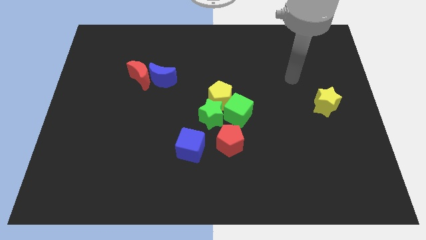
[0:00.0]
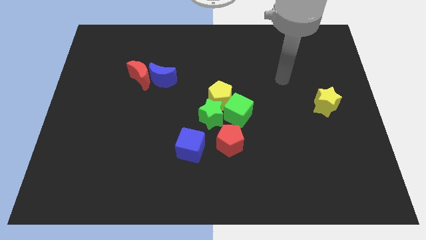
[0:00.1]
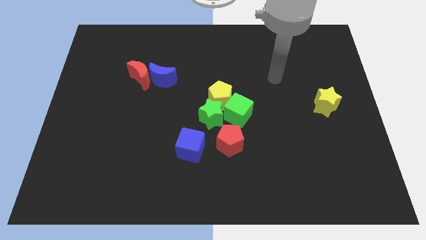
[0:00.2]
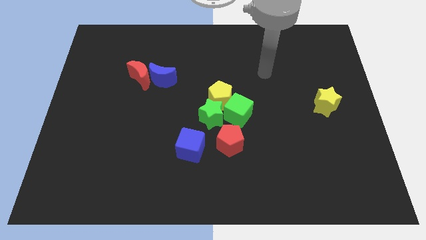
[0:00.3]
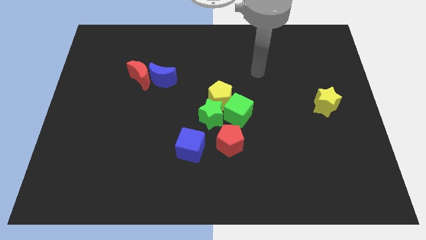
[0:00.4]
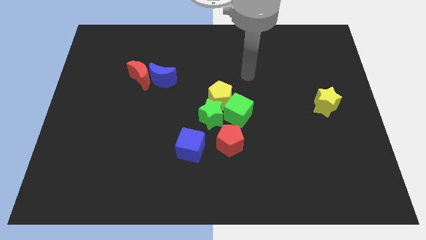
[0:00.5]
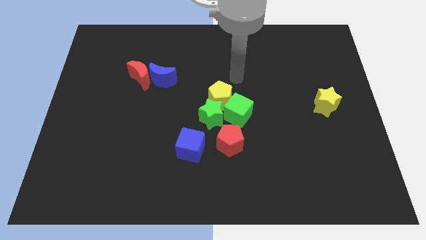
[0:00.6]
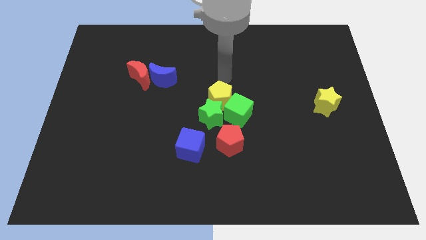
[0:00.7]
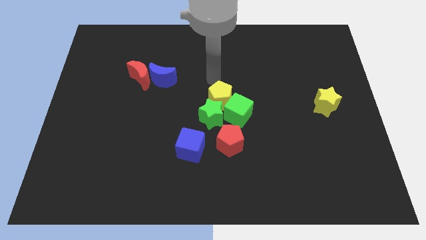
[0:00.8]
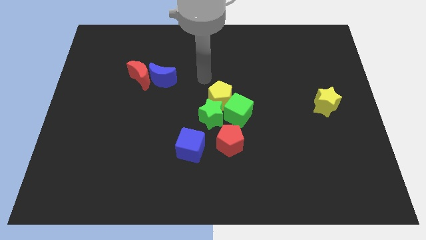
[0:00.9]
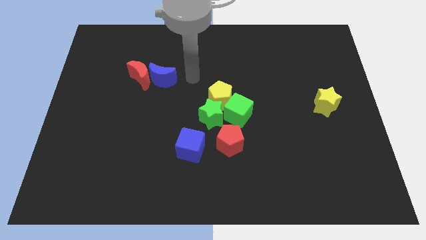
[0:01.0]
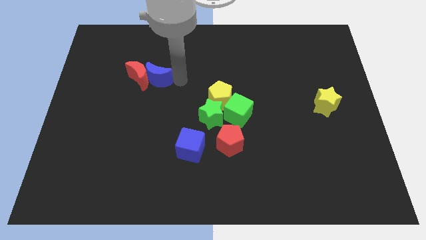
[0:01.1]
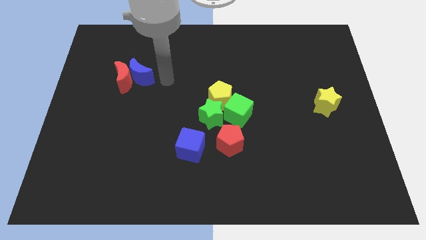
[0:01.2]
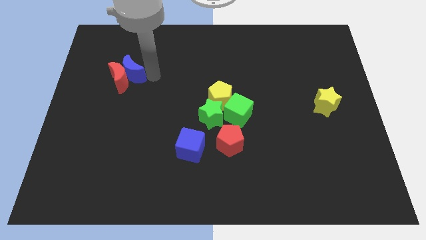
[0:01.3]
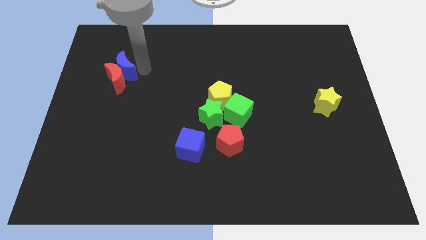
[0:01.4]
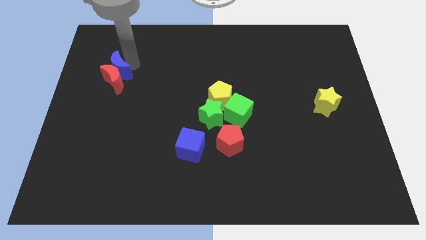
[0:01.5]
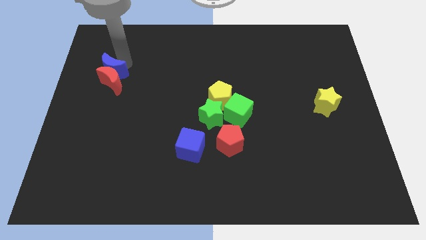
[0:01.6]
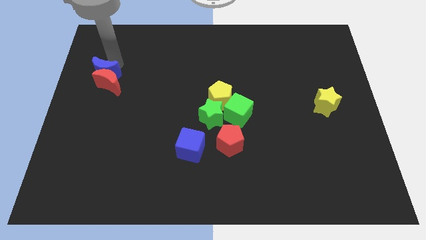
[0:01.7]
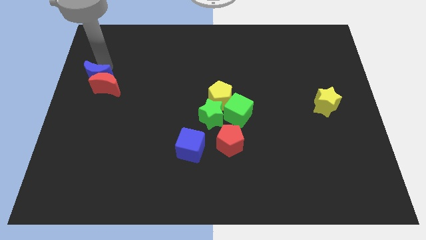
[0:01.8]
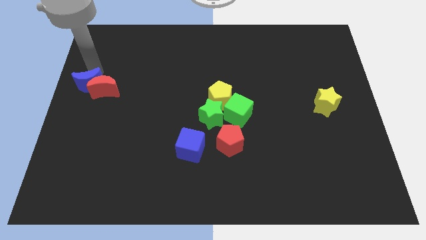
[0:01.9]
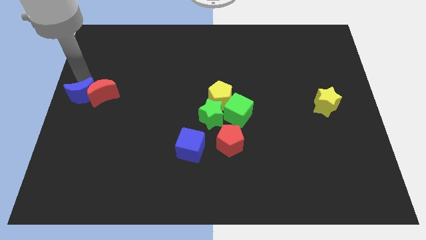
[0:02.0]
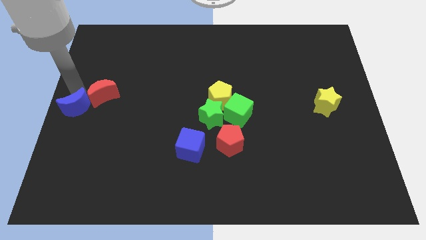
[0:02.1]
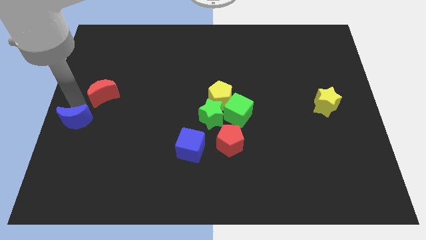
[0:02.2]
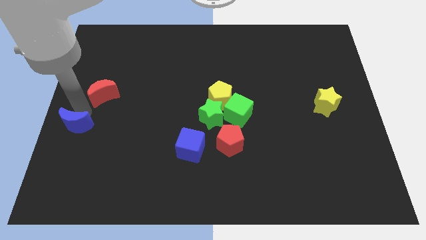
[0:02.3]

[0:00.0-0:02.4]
move the red moon away from the blue moon

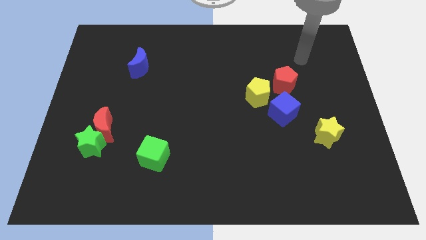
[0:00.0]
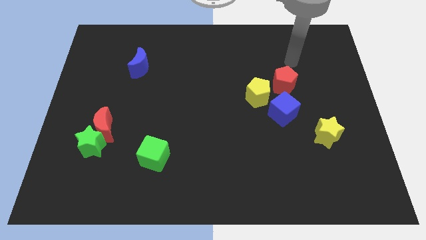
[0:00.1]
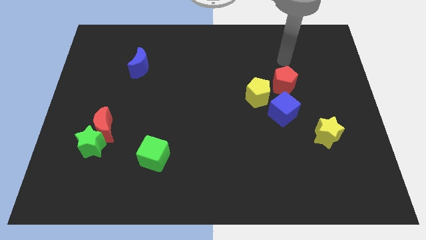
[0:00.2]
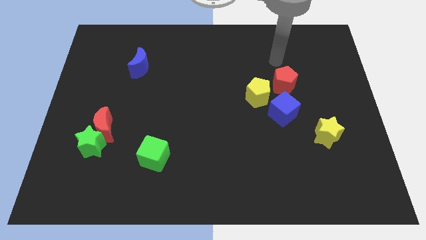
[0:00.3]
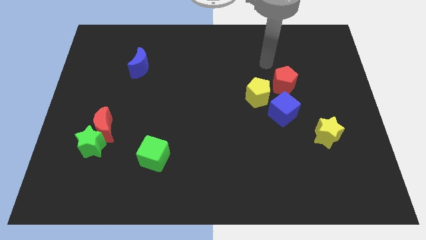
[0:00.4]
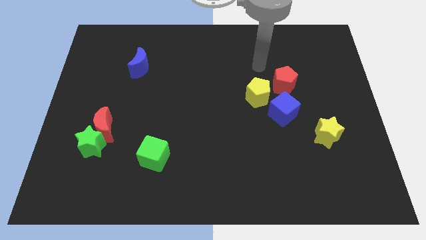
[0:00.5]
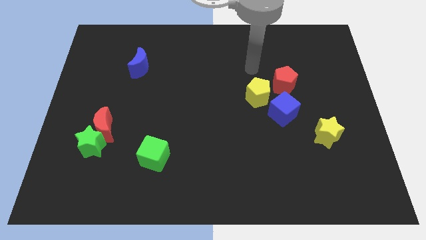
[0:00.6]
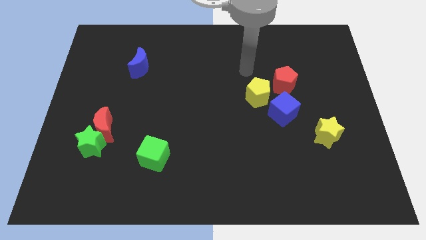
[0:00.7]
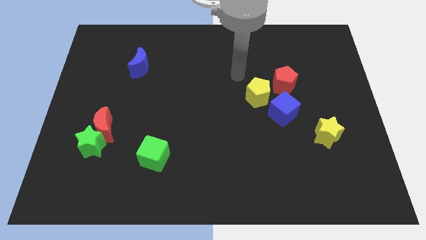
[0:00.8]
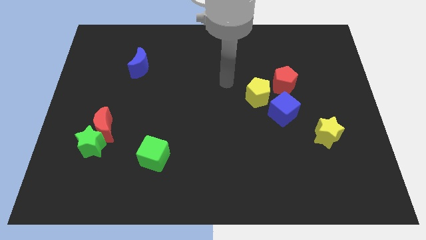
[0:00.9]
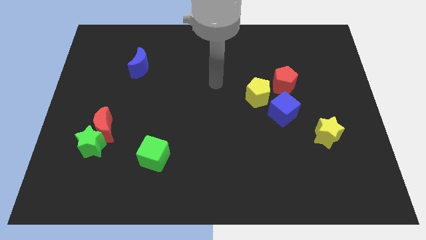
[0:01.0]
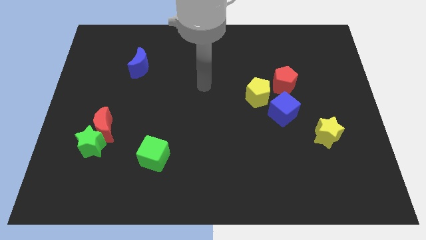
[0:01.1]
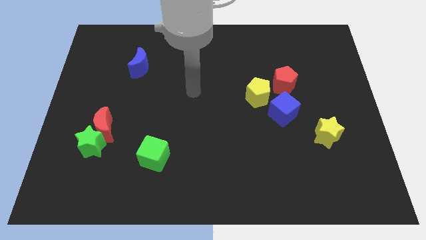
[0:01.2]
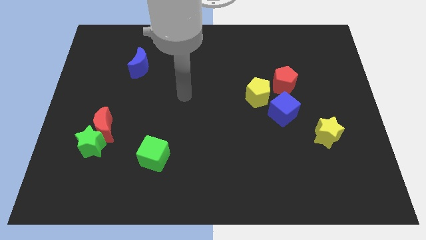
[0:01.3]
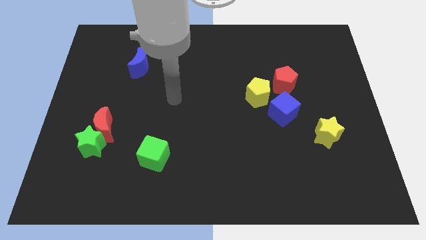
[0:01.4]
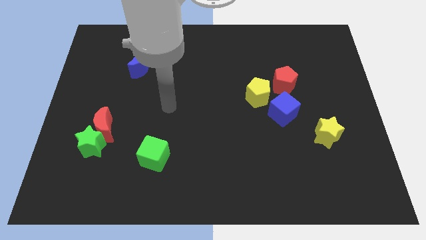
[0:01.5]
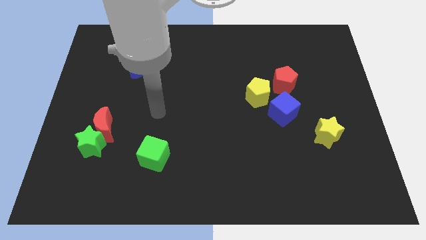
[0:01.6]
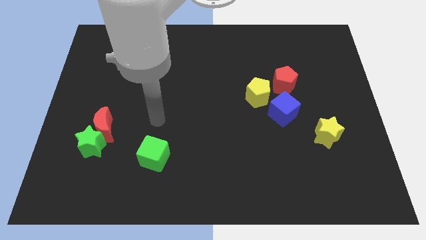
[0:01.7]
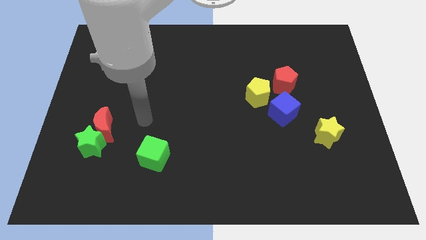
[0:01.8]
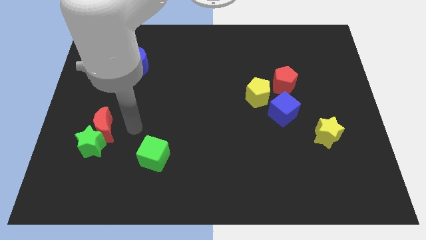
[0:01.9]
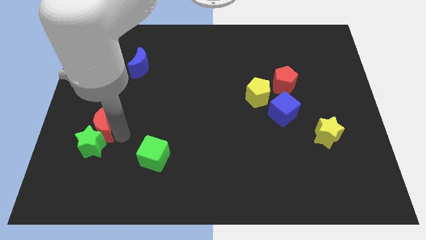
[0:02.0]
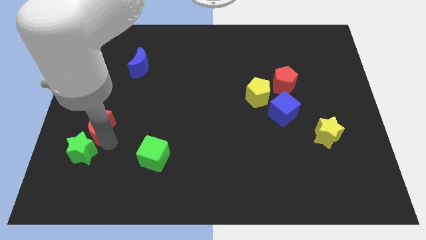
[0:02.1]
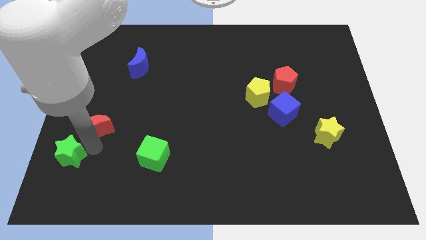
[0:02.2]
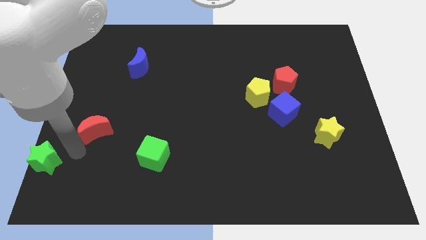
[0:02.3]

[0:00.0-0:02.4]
move the red moon away from the green star

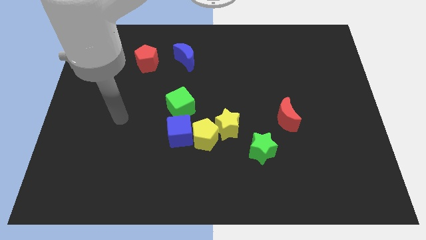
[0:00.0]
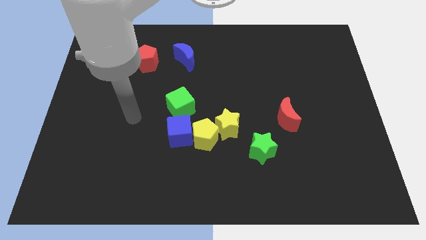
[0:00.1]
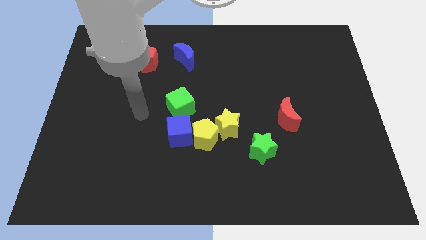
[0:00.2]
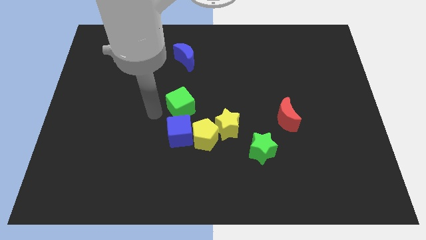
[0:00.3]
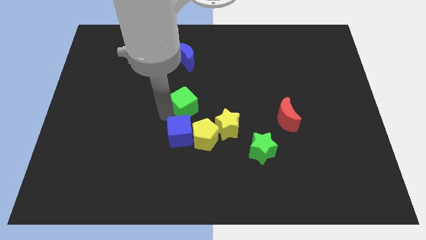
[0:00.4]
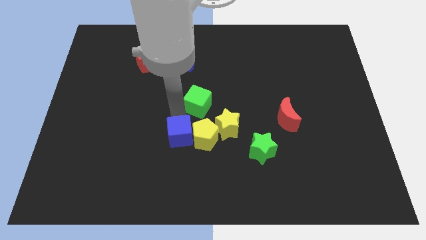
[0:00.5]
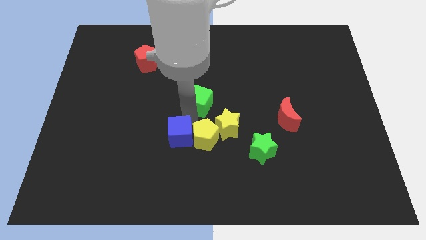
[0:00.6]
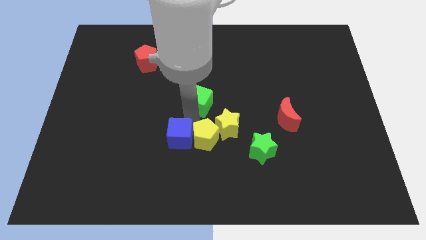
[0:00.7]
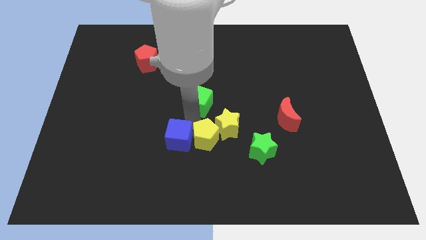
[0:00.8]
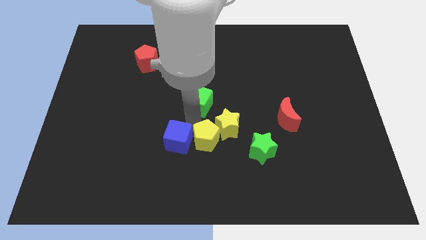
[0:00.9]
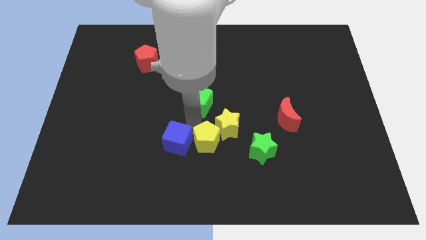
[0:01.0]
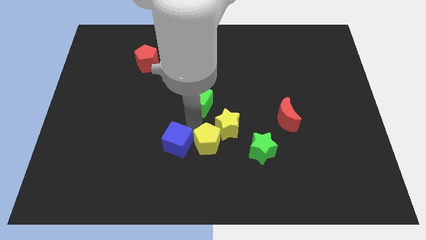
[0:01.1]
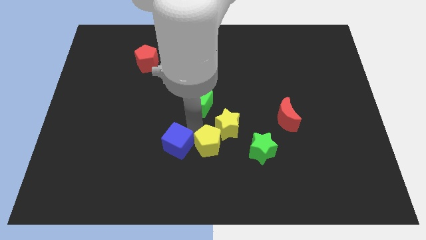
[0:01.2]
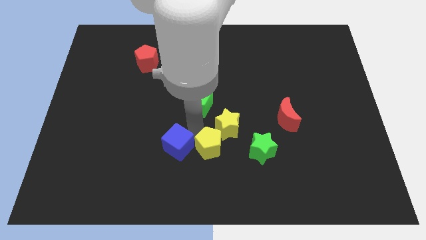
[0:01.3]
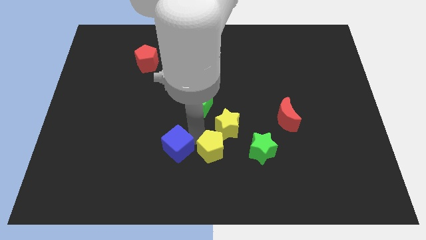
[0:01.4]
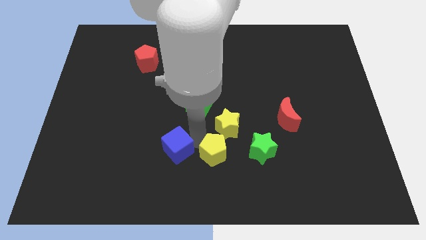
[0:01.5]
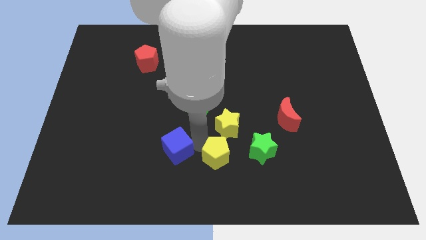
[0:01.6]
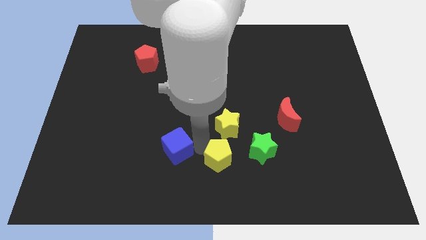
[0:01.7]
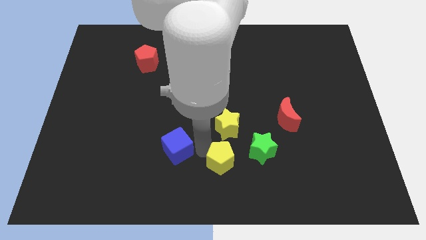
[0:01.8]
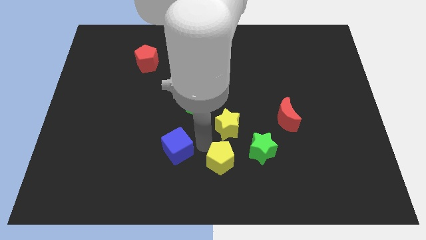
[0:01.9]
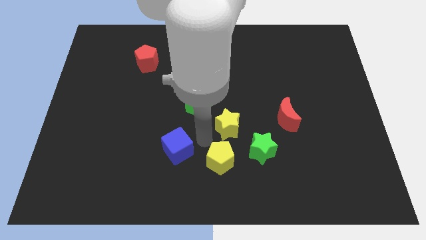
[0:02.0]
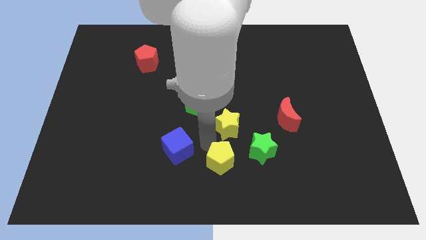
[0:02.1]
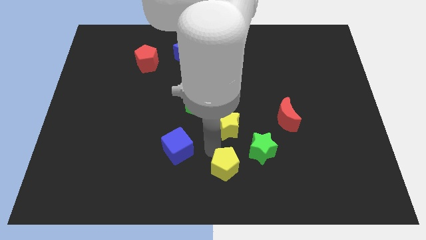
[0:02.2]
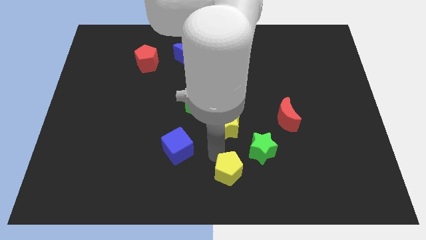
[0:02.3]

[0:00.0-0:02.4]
separate the yellow pentagon from the blue cube and yellow star

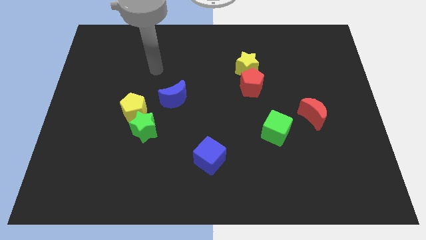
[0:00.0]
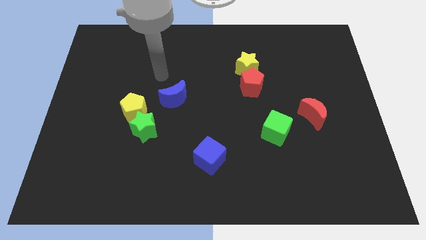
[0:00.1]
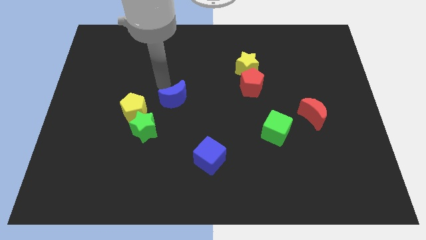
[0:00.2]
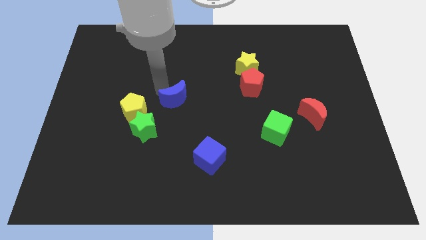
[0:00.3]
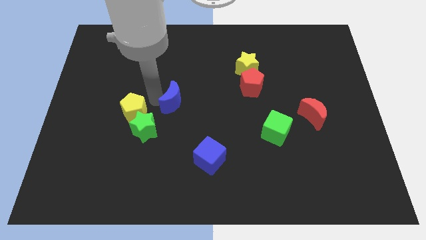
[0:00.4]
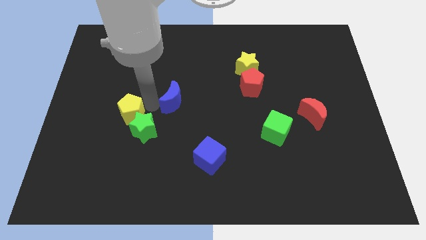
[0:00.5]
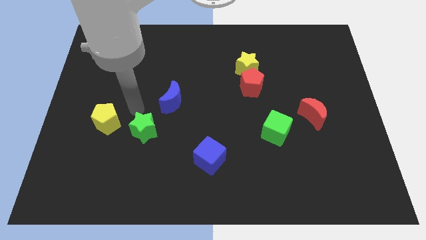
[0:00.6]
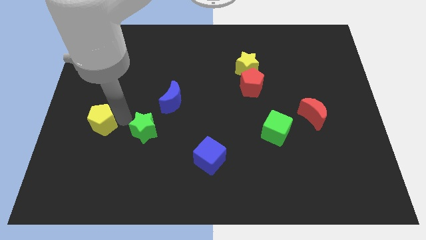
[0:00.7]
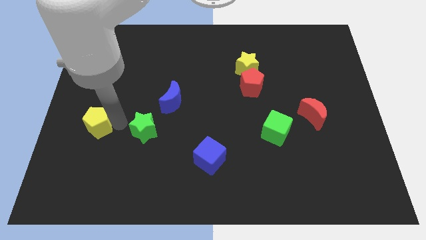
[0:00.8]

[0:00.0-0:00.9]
pull the green star apart from the yellow pentagon

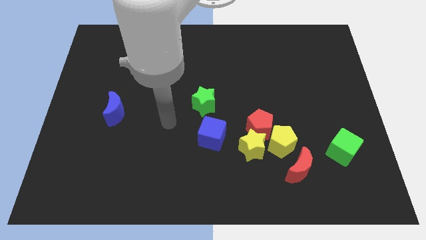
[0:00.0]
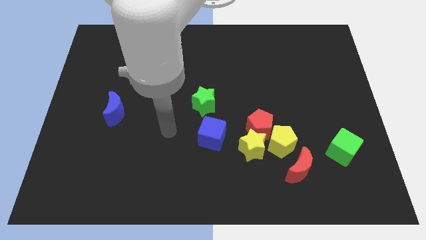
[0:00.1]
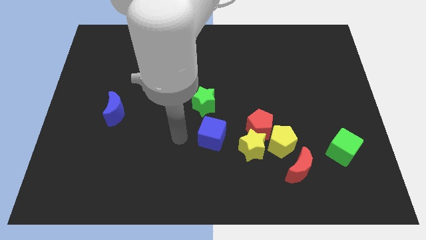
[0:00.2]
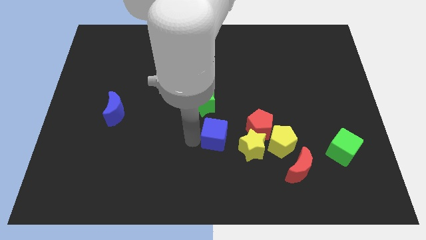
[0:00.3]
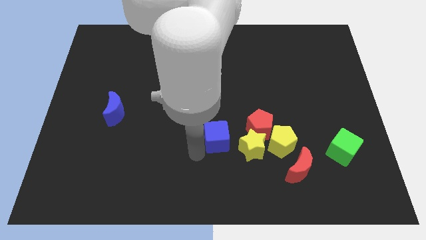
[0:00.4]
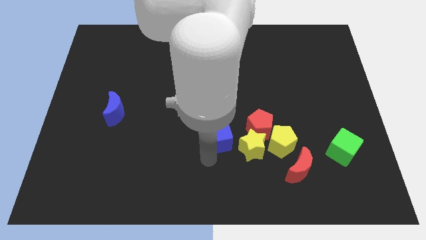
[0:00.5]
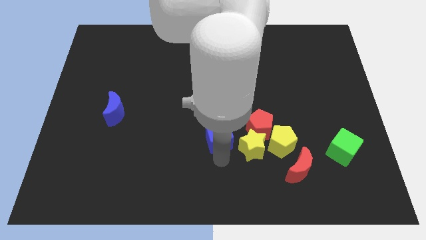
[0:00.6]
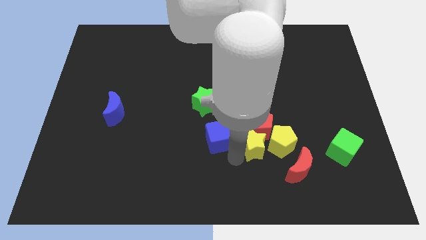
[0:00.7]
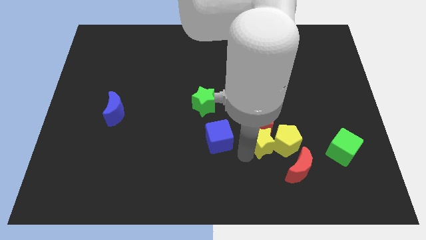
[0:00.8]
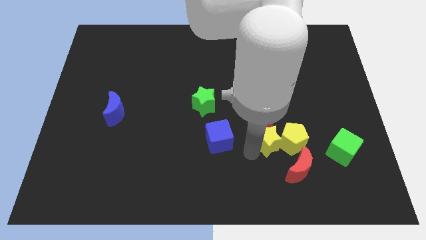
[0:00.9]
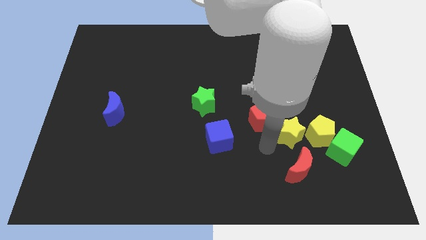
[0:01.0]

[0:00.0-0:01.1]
move the red pentagon away from the yellow star and yellow pentagon

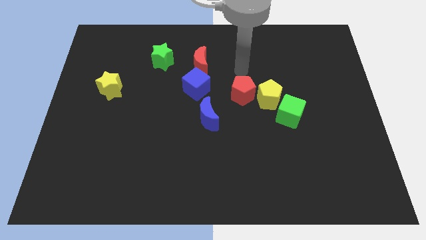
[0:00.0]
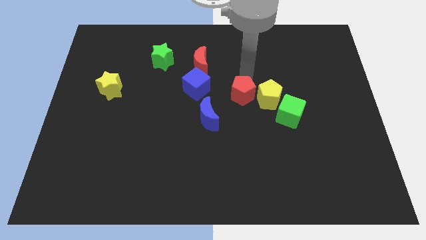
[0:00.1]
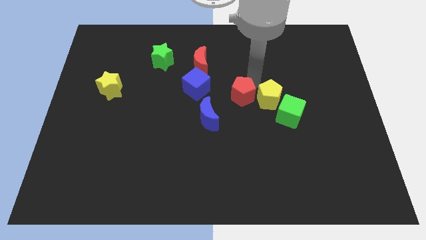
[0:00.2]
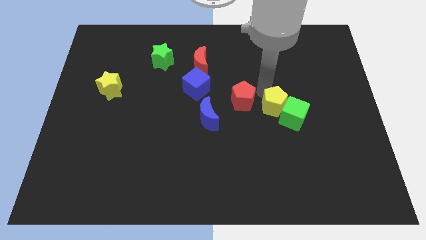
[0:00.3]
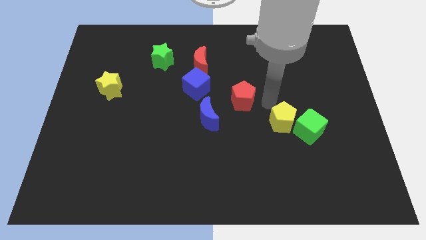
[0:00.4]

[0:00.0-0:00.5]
separate the red pentagon from the yellow pentagon
